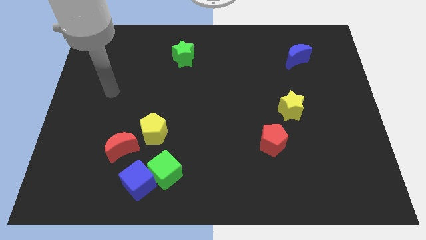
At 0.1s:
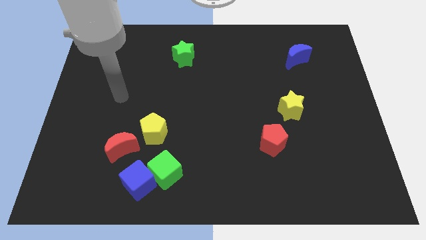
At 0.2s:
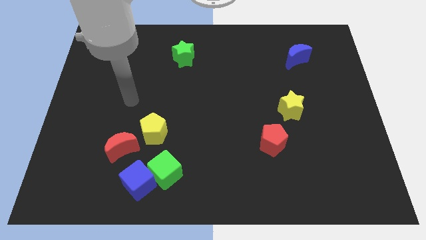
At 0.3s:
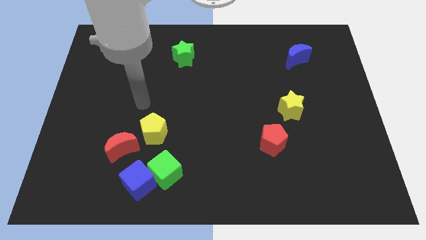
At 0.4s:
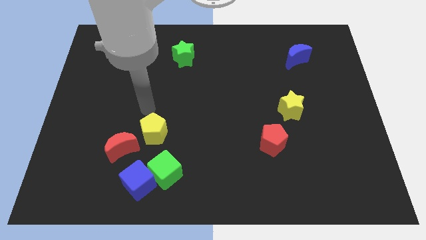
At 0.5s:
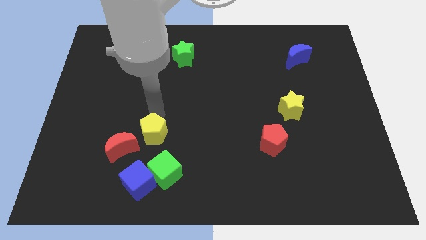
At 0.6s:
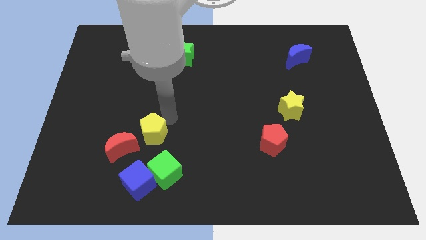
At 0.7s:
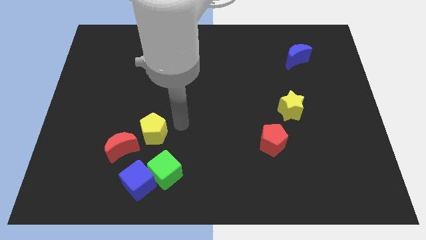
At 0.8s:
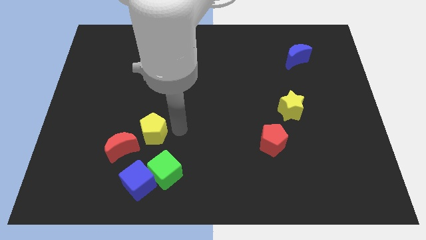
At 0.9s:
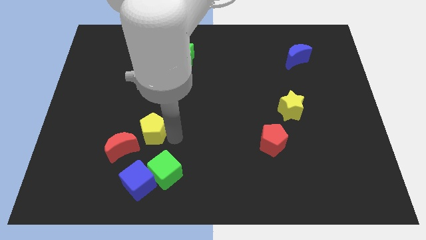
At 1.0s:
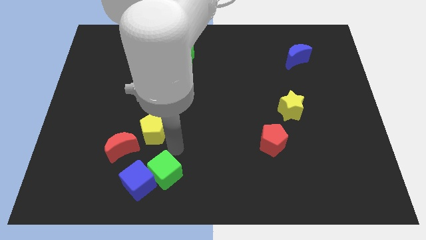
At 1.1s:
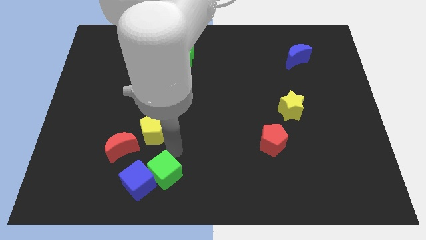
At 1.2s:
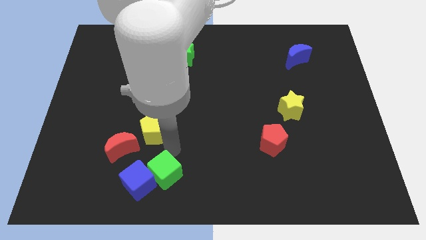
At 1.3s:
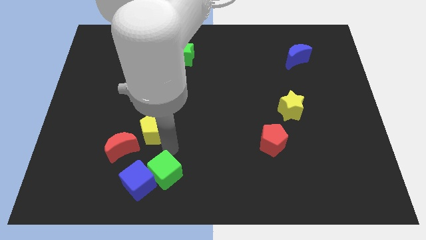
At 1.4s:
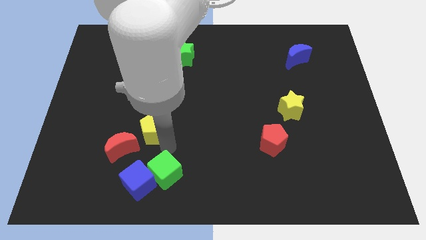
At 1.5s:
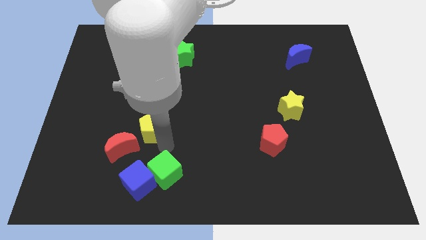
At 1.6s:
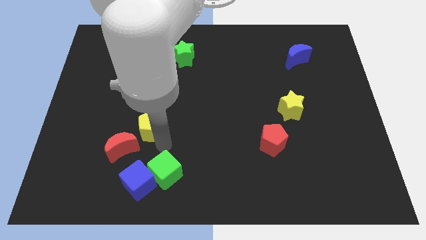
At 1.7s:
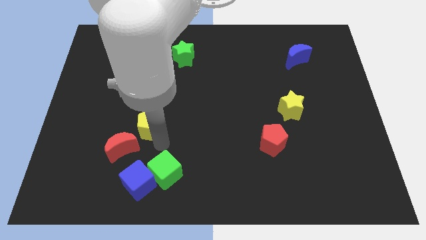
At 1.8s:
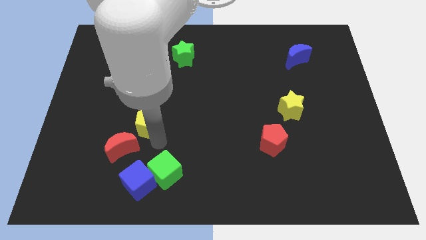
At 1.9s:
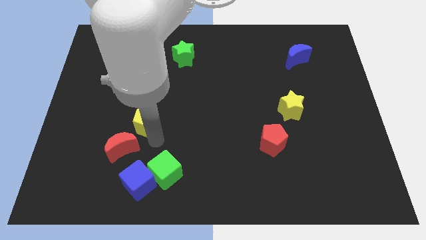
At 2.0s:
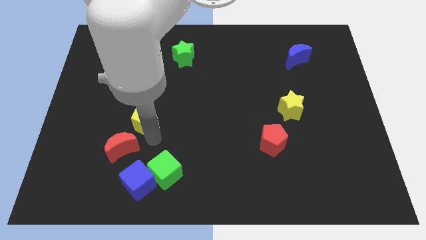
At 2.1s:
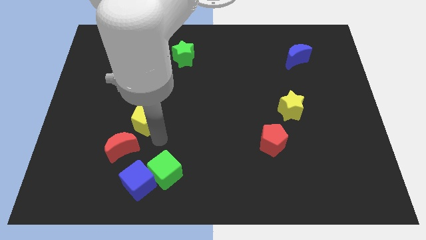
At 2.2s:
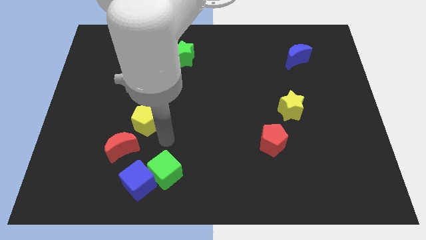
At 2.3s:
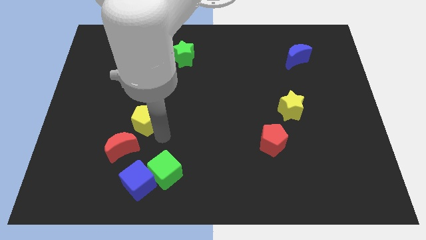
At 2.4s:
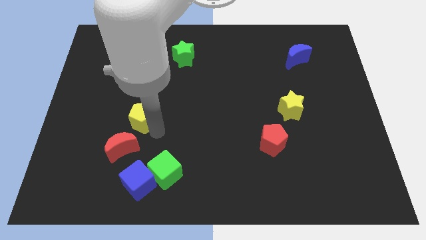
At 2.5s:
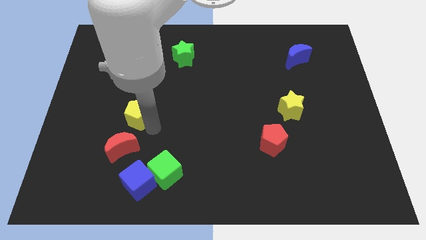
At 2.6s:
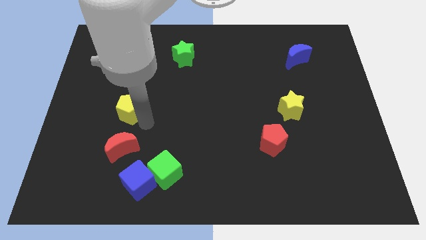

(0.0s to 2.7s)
move the yellow pentagon slightly up and left

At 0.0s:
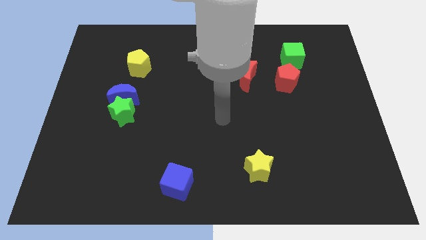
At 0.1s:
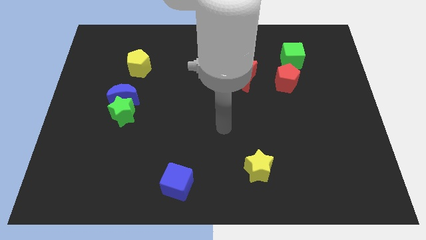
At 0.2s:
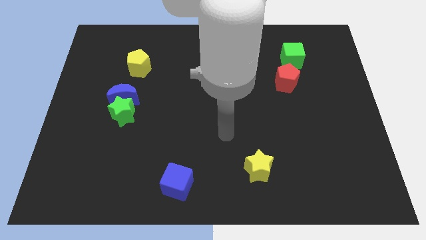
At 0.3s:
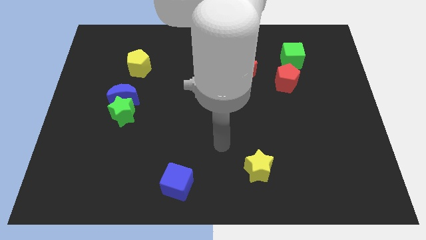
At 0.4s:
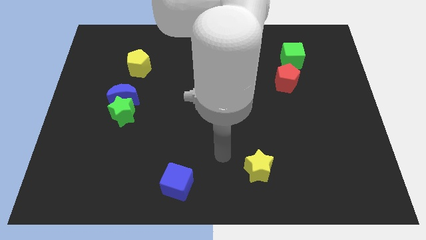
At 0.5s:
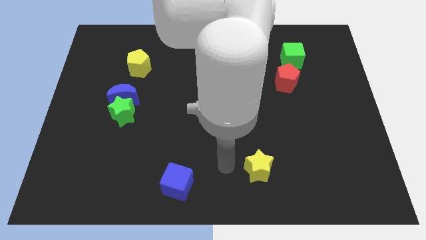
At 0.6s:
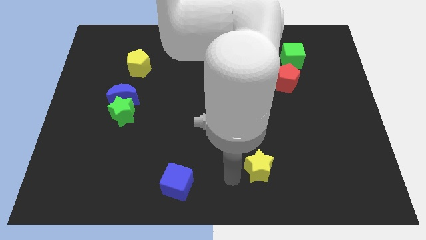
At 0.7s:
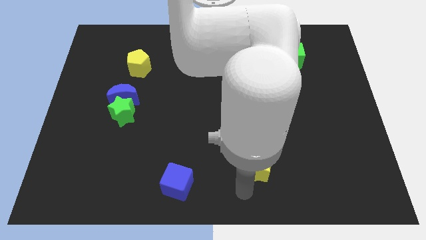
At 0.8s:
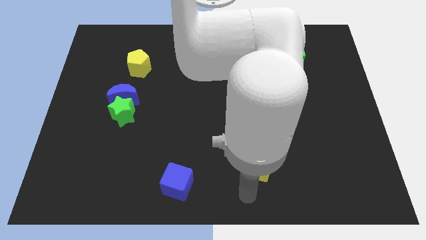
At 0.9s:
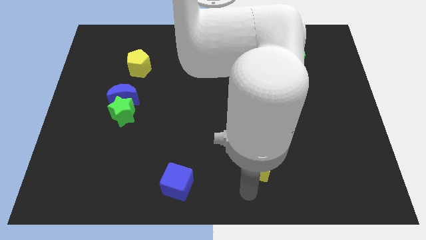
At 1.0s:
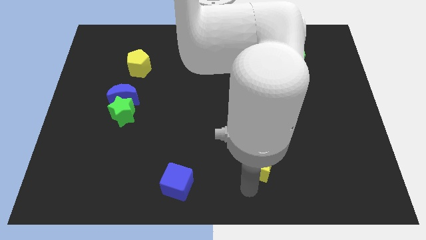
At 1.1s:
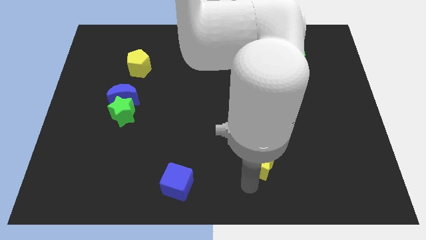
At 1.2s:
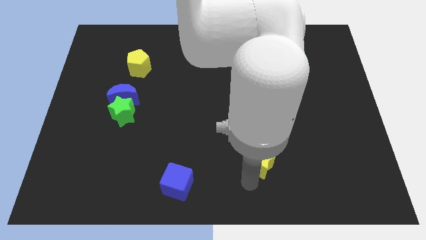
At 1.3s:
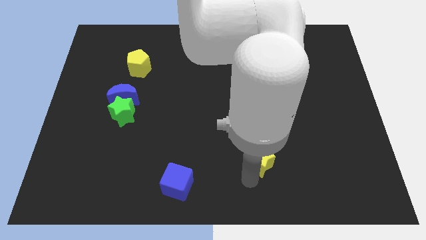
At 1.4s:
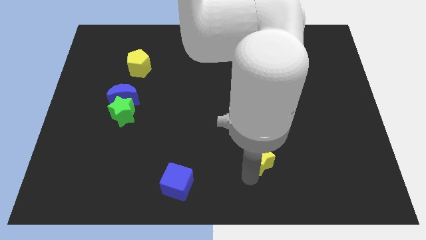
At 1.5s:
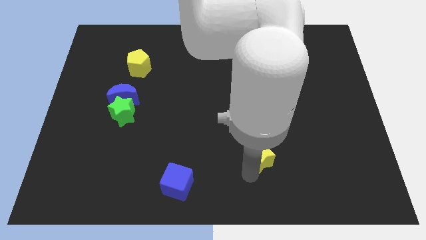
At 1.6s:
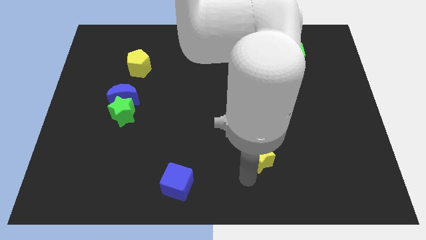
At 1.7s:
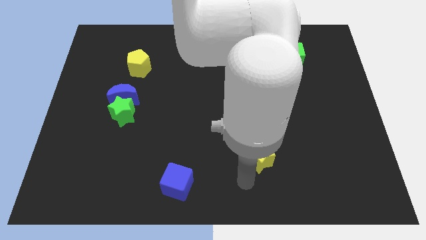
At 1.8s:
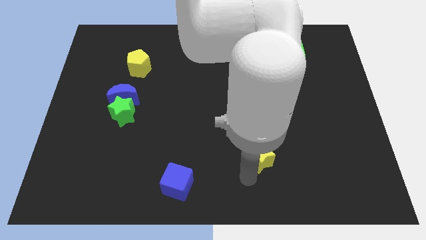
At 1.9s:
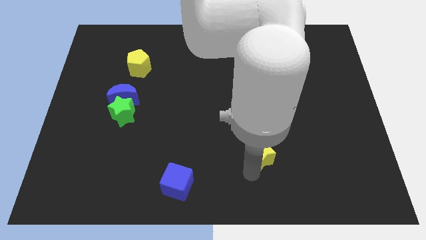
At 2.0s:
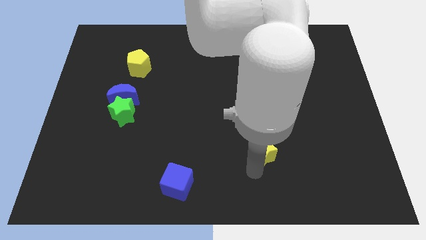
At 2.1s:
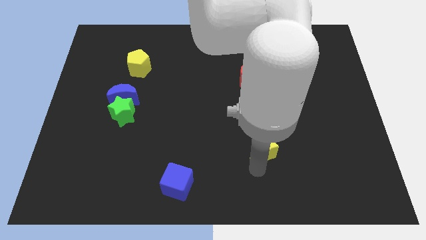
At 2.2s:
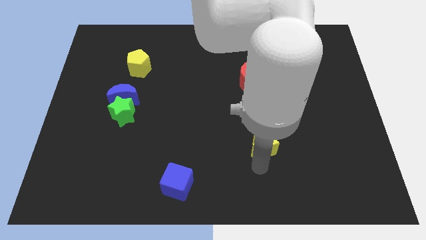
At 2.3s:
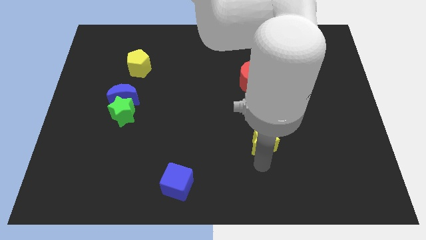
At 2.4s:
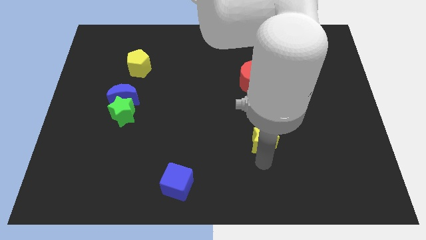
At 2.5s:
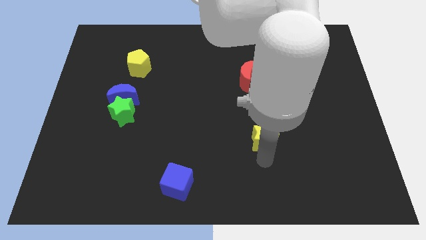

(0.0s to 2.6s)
move the yellow star a little bit upwards

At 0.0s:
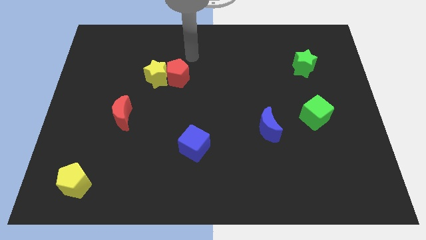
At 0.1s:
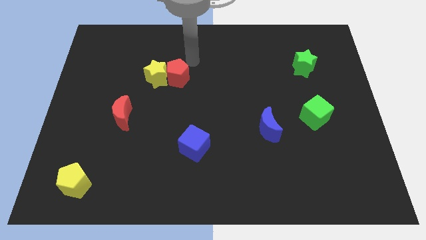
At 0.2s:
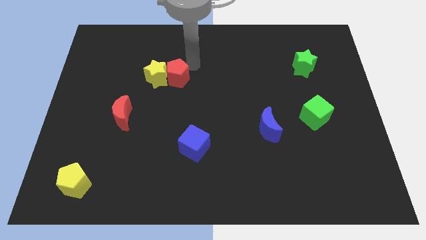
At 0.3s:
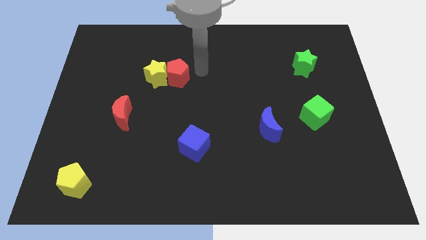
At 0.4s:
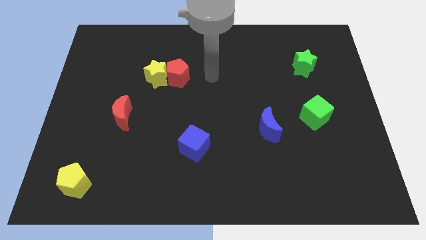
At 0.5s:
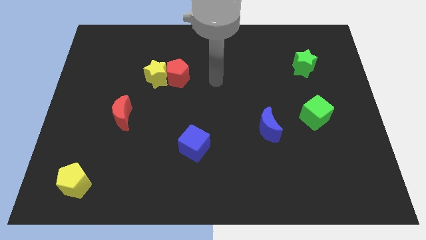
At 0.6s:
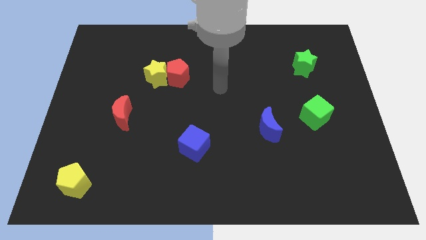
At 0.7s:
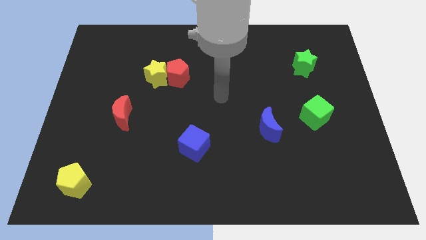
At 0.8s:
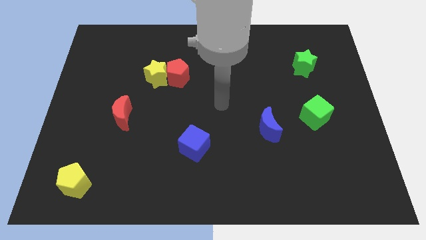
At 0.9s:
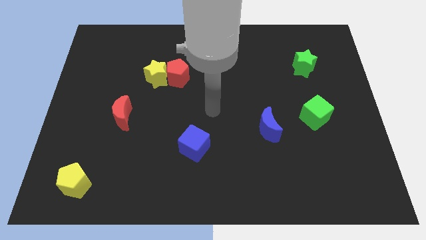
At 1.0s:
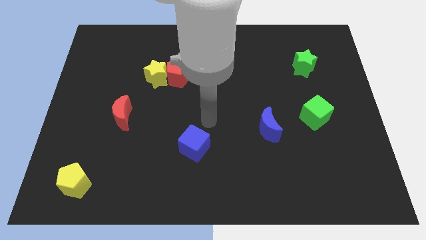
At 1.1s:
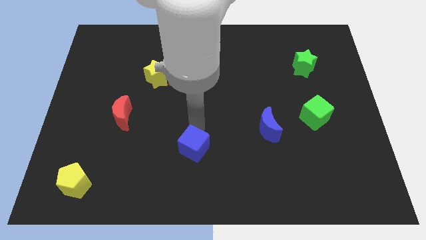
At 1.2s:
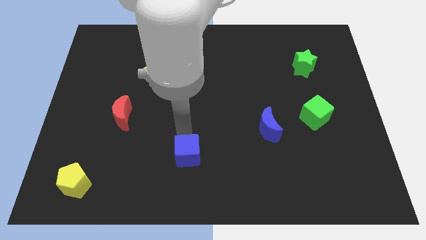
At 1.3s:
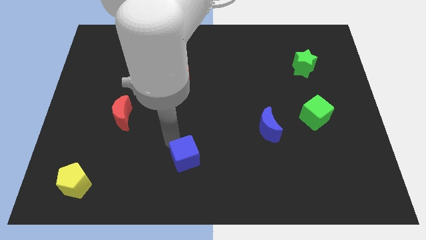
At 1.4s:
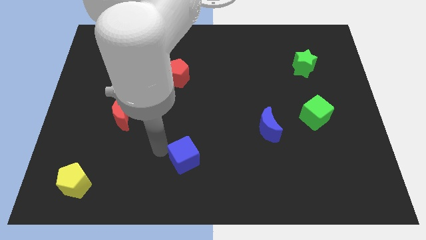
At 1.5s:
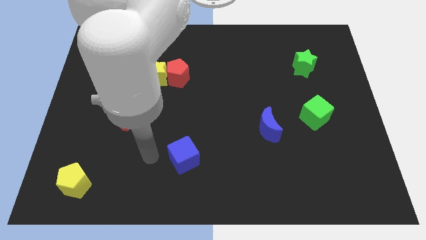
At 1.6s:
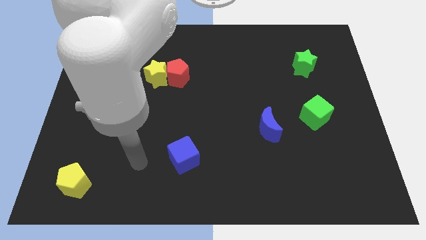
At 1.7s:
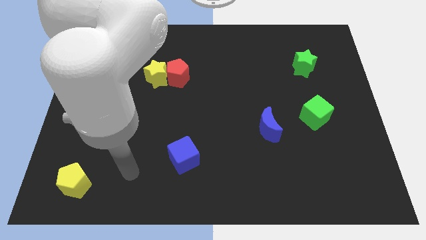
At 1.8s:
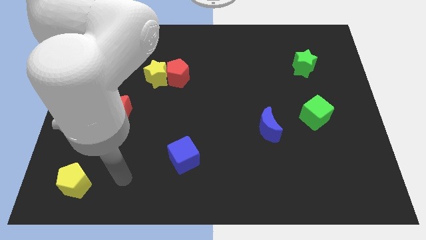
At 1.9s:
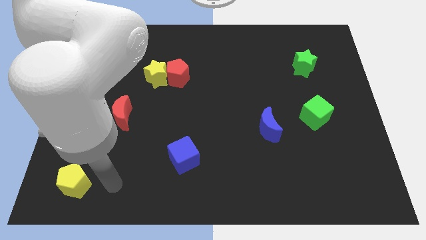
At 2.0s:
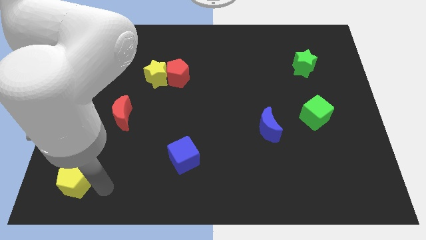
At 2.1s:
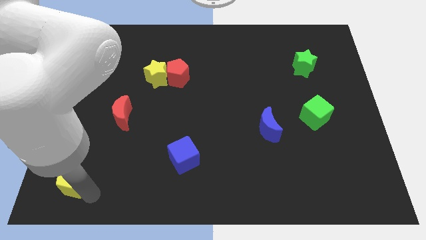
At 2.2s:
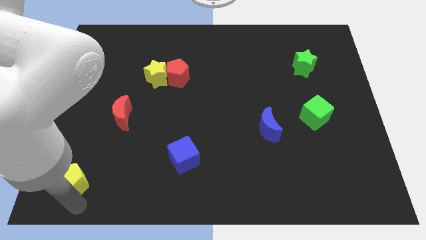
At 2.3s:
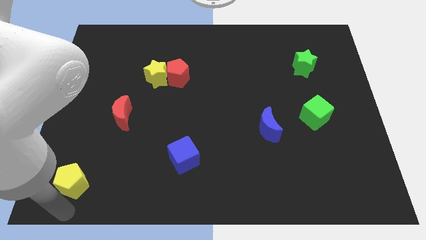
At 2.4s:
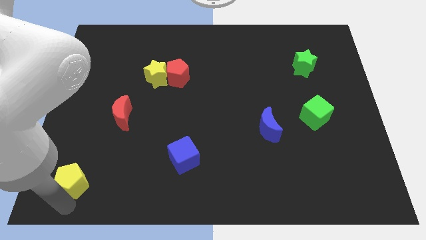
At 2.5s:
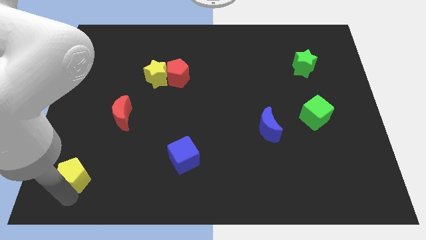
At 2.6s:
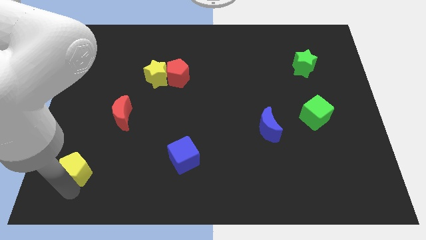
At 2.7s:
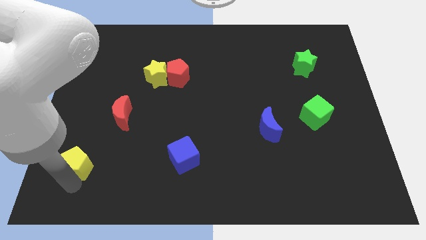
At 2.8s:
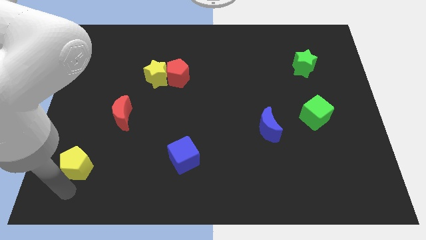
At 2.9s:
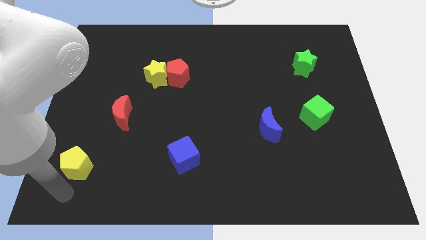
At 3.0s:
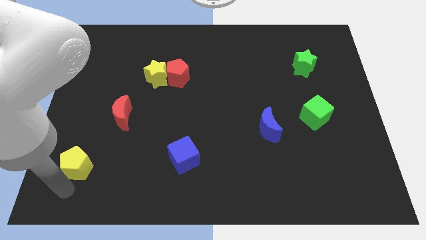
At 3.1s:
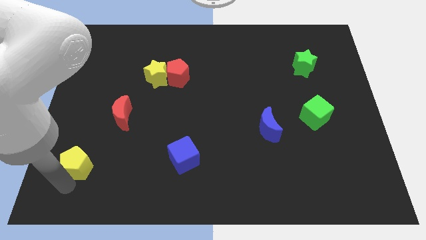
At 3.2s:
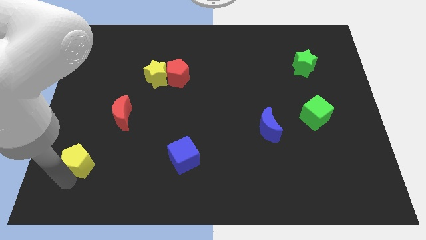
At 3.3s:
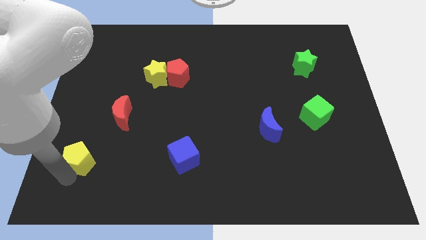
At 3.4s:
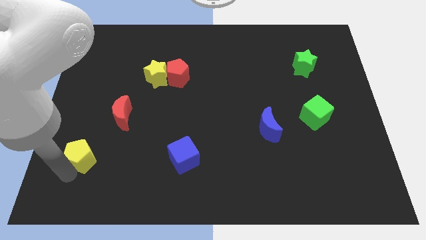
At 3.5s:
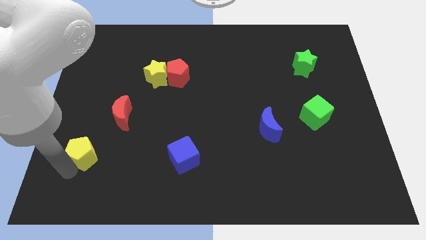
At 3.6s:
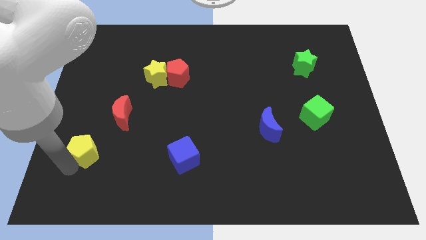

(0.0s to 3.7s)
slightly move the yellow pentagon upwards
